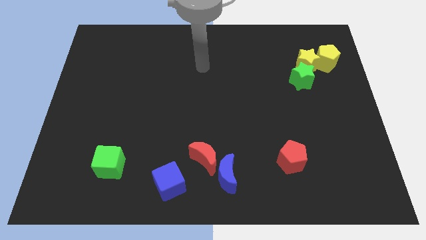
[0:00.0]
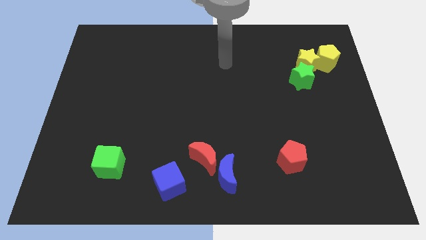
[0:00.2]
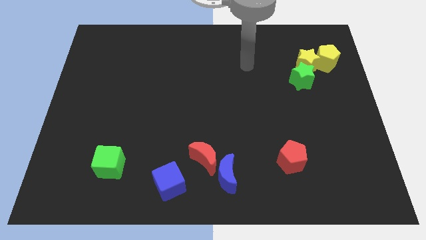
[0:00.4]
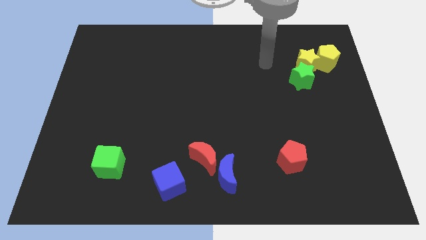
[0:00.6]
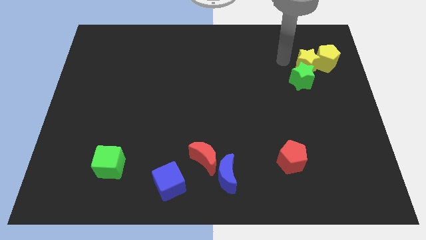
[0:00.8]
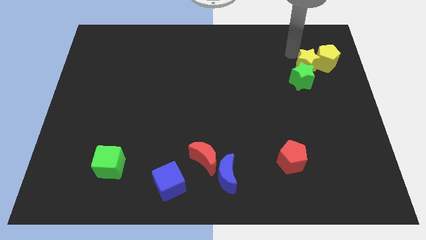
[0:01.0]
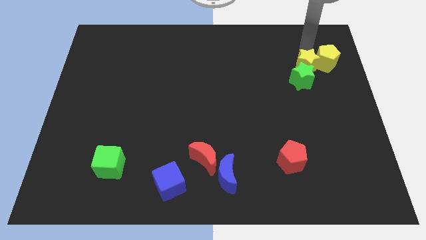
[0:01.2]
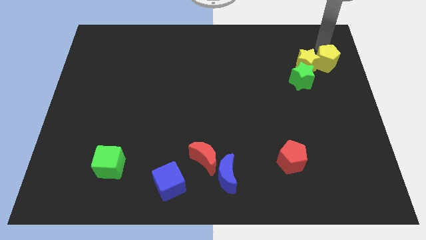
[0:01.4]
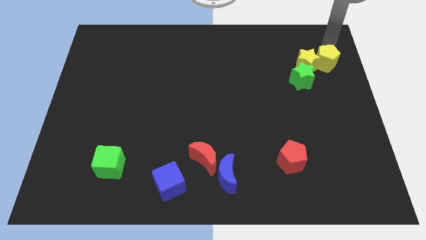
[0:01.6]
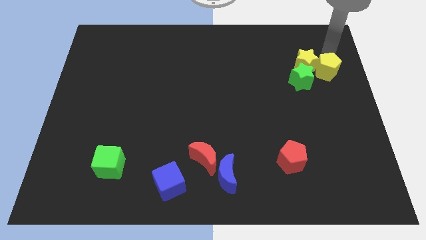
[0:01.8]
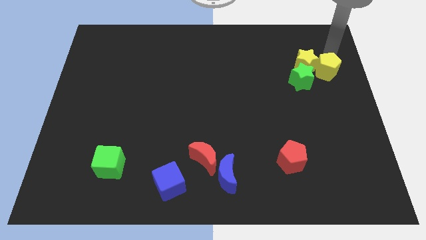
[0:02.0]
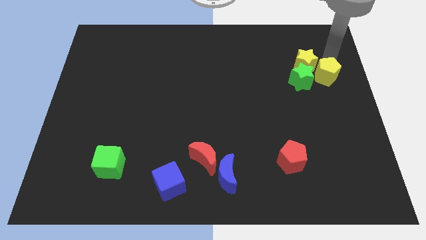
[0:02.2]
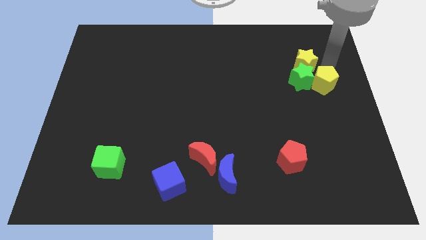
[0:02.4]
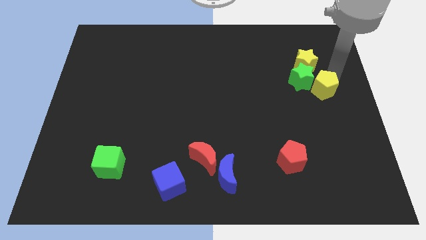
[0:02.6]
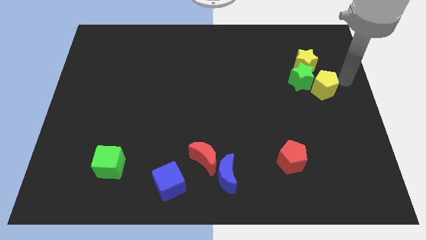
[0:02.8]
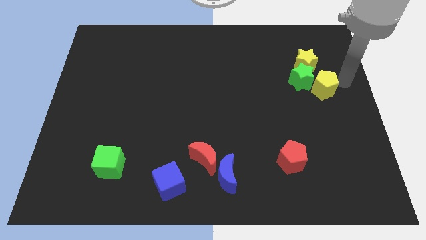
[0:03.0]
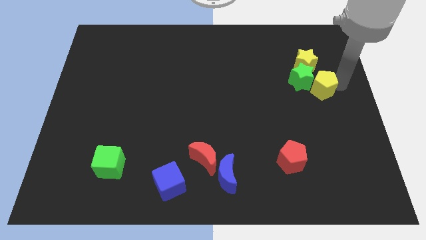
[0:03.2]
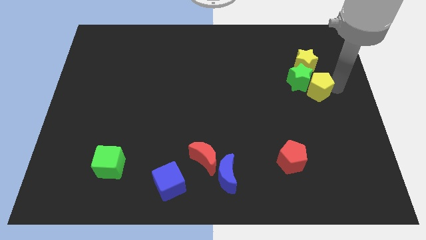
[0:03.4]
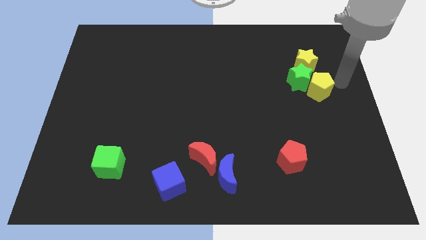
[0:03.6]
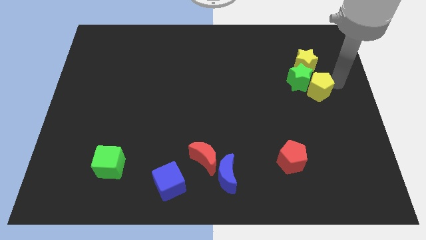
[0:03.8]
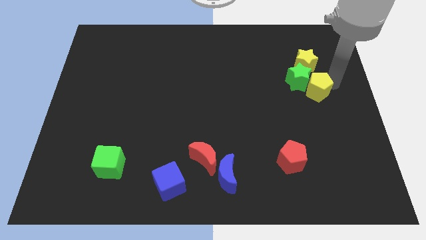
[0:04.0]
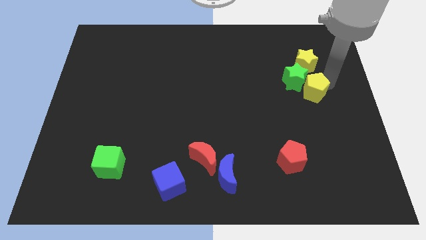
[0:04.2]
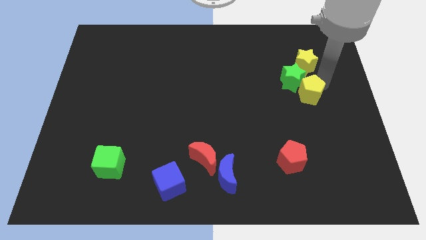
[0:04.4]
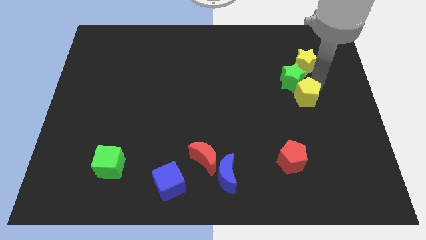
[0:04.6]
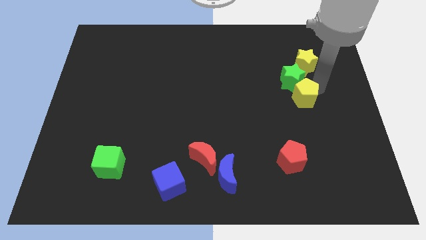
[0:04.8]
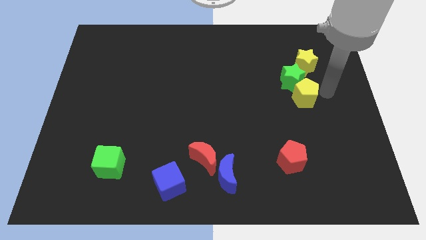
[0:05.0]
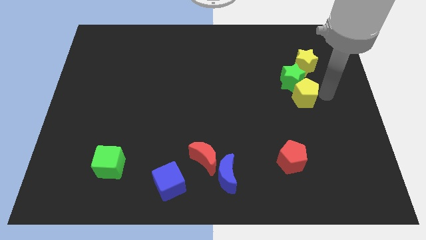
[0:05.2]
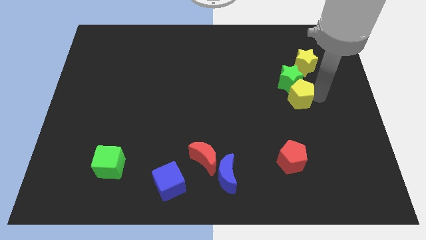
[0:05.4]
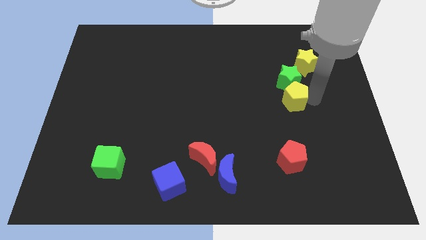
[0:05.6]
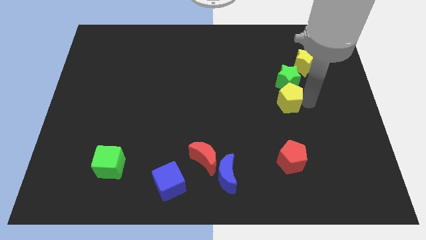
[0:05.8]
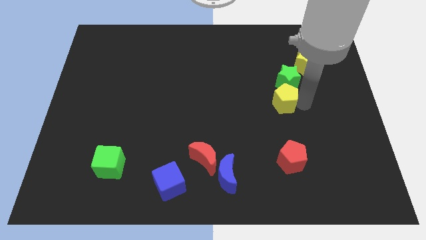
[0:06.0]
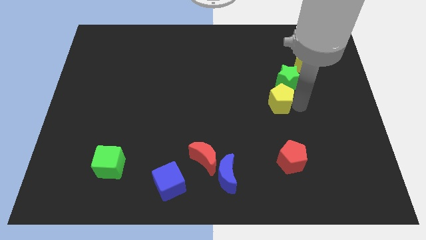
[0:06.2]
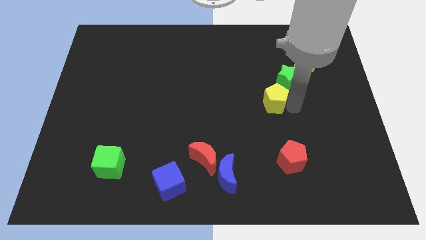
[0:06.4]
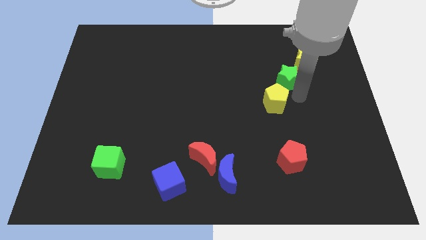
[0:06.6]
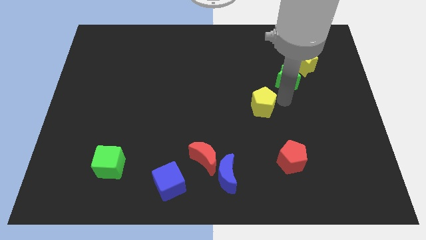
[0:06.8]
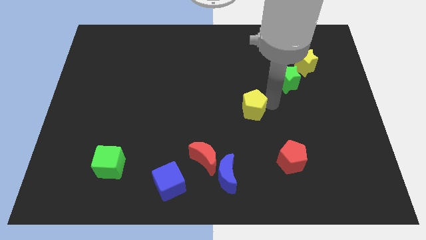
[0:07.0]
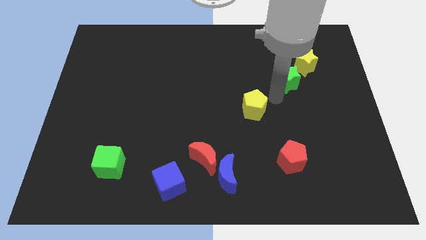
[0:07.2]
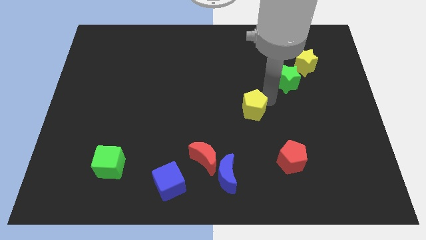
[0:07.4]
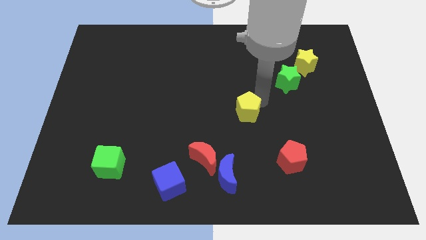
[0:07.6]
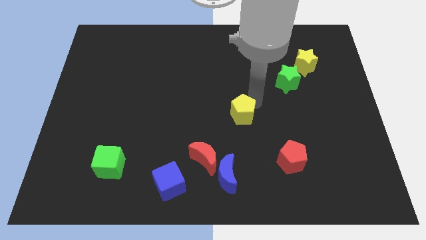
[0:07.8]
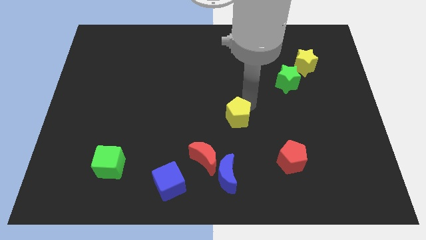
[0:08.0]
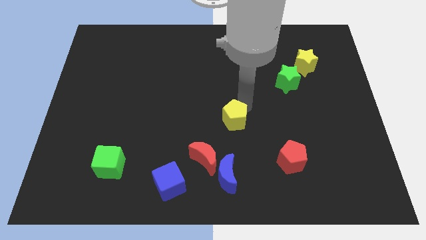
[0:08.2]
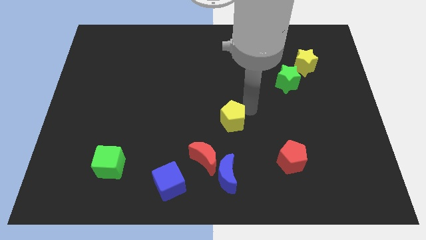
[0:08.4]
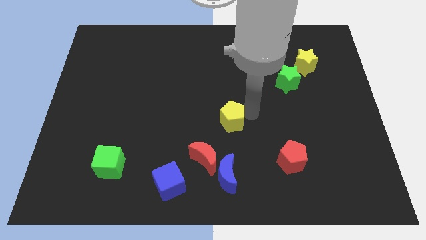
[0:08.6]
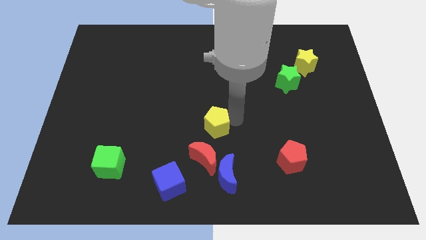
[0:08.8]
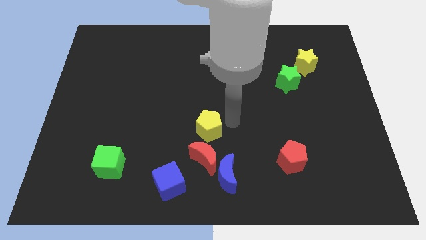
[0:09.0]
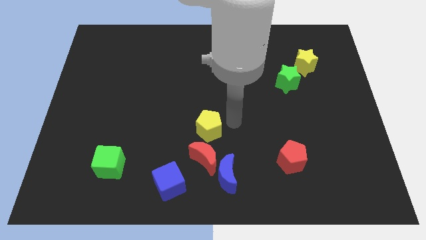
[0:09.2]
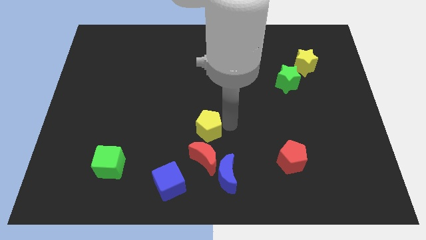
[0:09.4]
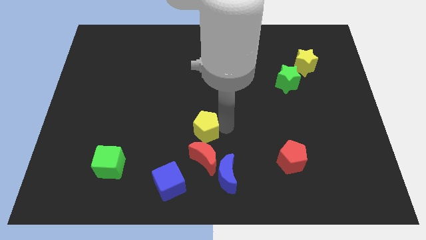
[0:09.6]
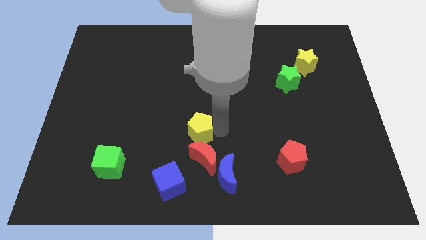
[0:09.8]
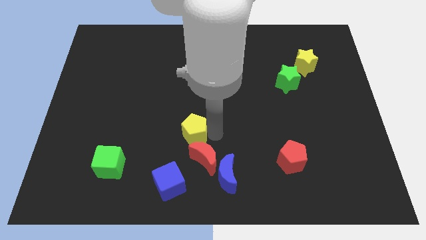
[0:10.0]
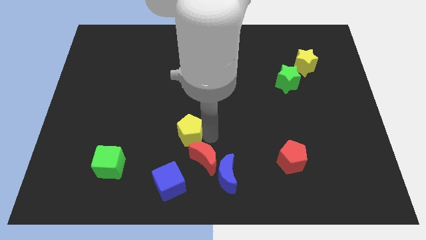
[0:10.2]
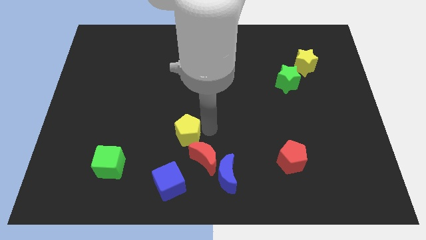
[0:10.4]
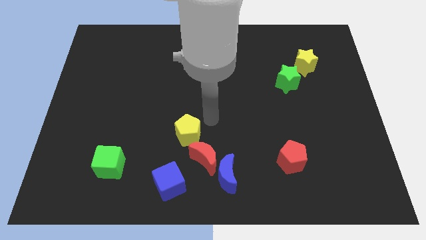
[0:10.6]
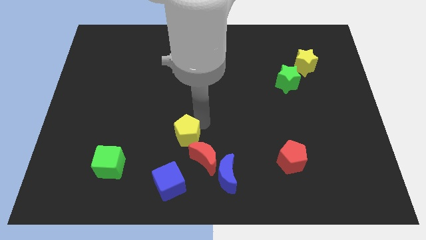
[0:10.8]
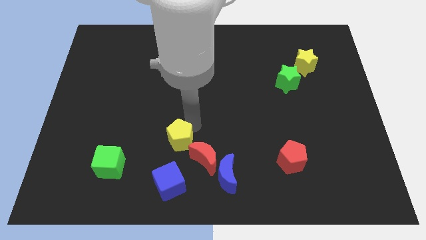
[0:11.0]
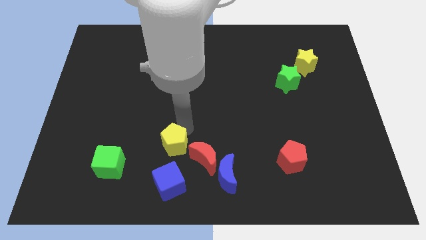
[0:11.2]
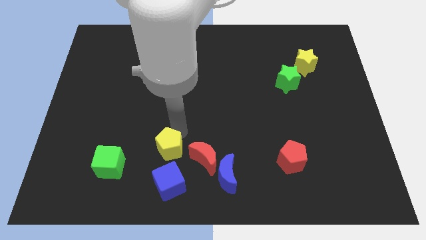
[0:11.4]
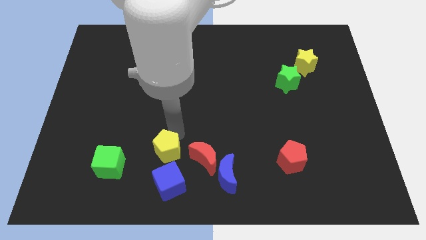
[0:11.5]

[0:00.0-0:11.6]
put the yellow pentagon diagonally up and to the left of the blue cube

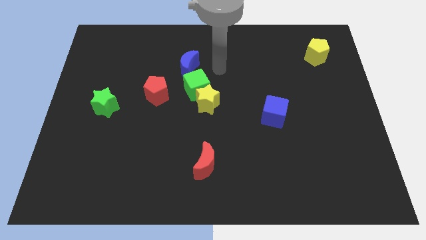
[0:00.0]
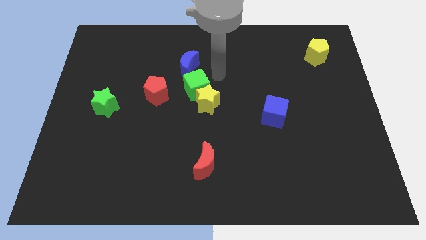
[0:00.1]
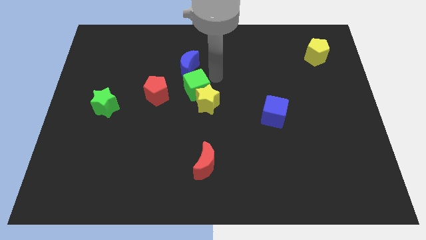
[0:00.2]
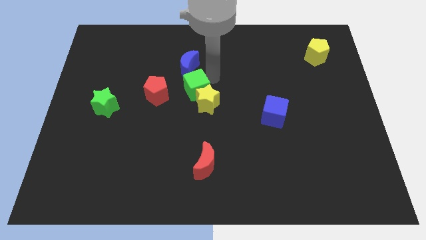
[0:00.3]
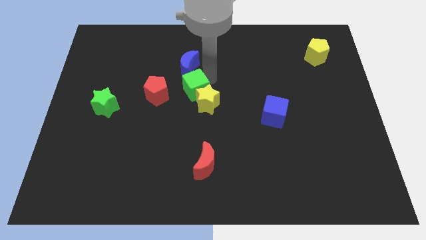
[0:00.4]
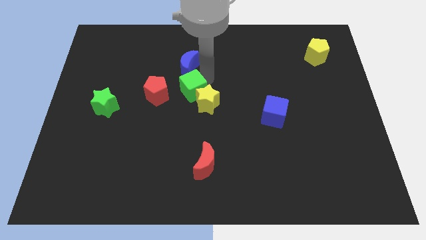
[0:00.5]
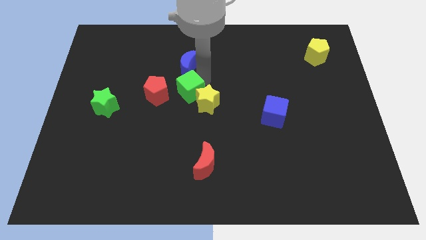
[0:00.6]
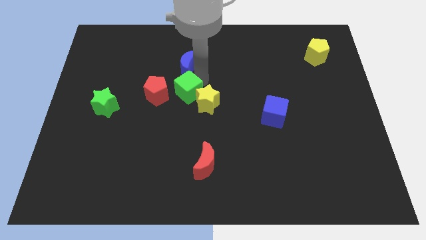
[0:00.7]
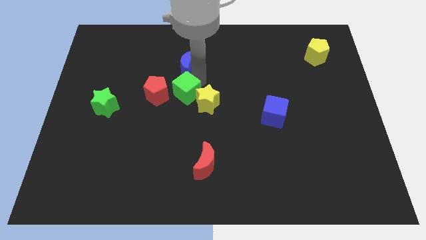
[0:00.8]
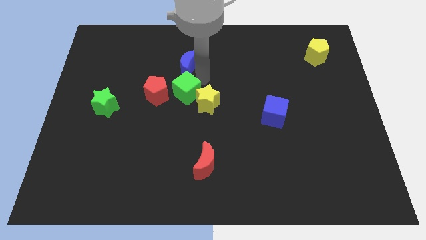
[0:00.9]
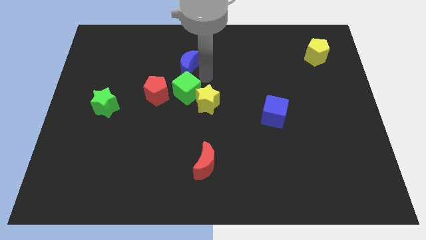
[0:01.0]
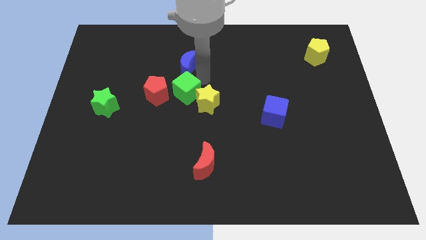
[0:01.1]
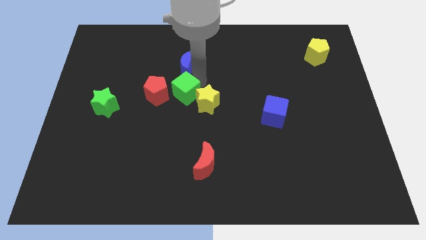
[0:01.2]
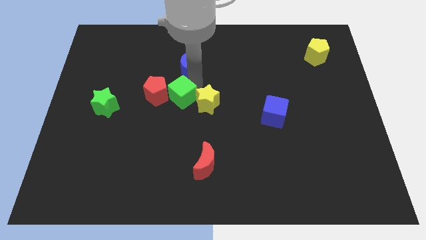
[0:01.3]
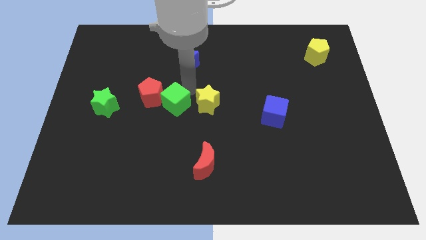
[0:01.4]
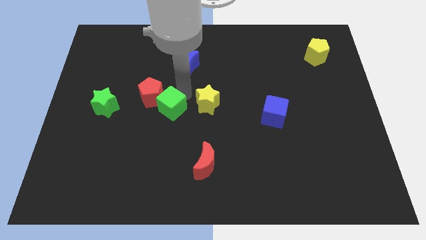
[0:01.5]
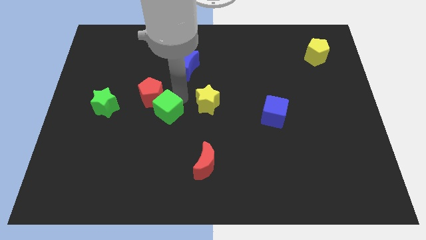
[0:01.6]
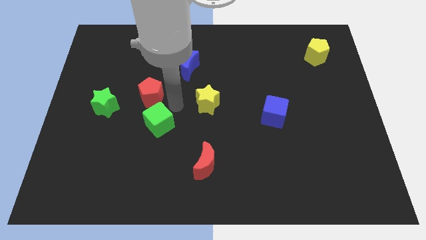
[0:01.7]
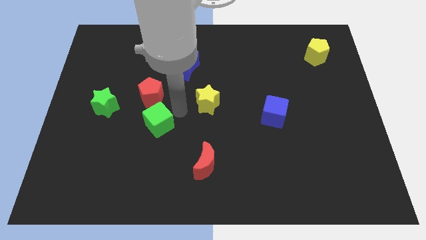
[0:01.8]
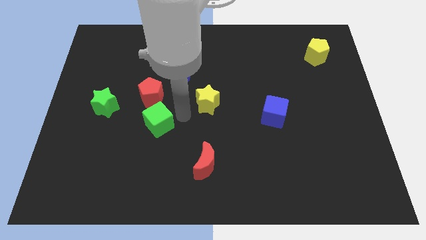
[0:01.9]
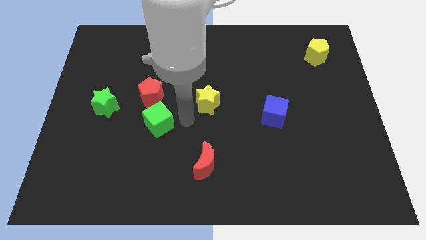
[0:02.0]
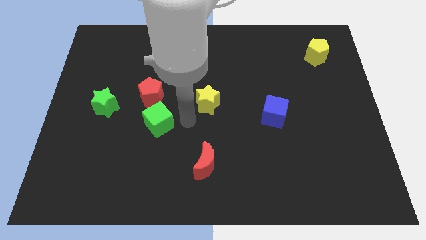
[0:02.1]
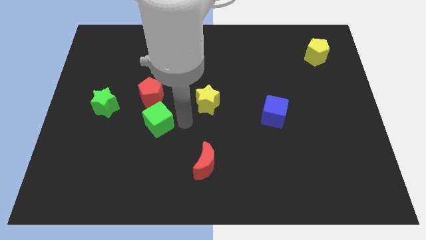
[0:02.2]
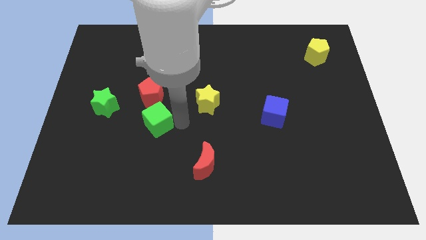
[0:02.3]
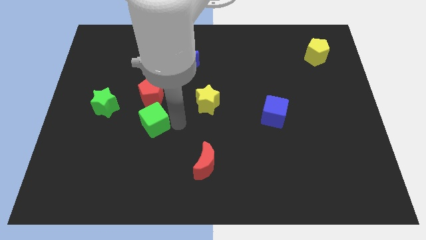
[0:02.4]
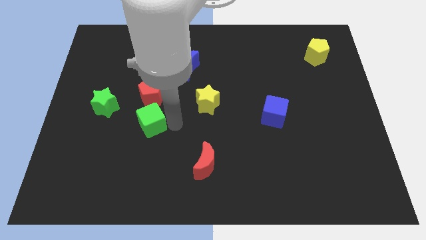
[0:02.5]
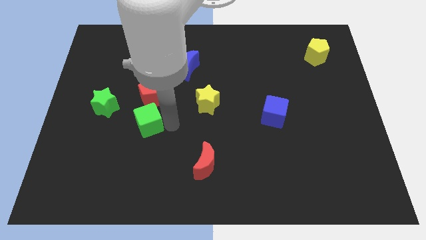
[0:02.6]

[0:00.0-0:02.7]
push the green cube to the bottom right side of the green star
